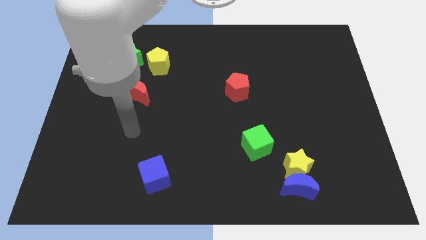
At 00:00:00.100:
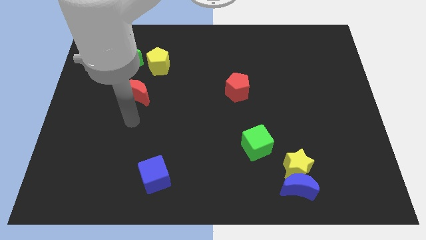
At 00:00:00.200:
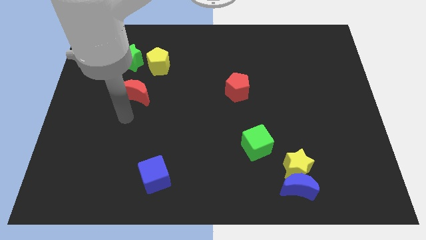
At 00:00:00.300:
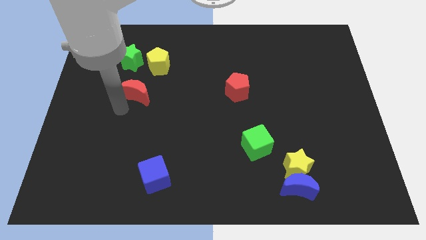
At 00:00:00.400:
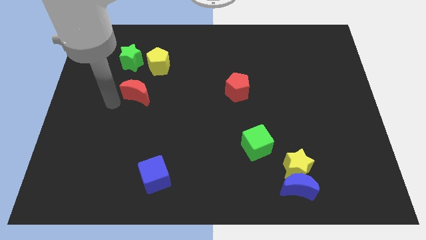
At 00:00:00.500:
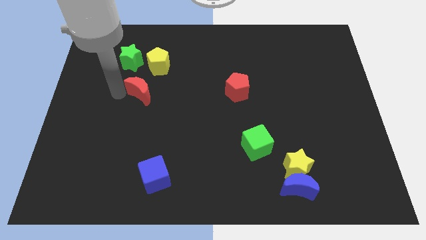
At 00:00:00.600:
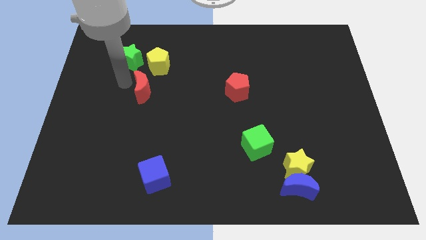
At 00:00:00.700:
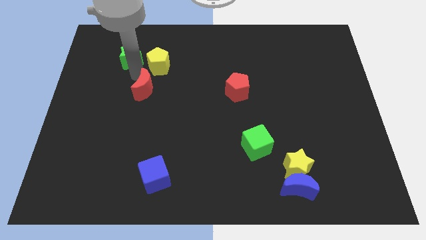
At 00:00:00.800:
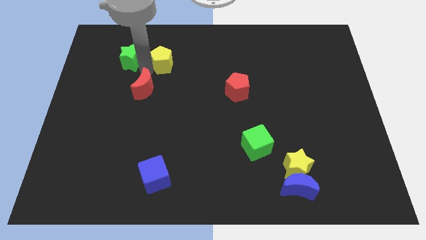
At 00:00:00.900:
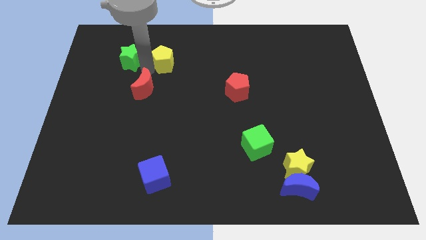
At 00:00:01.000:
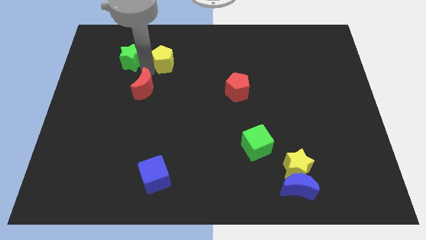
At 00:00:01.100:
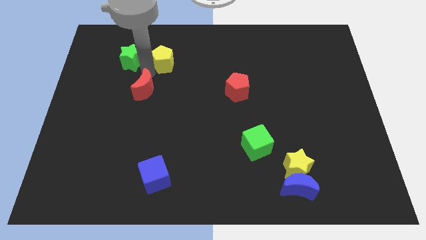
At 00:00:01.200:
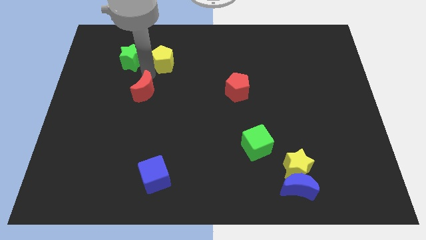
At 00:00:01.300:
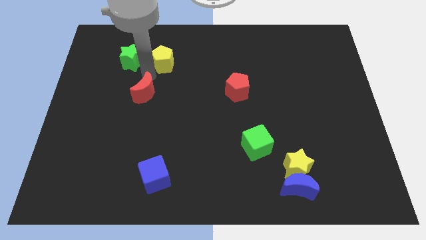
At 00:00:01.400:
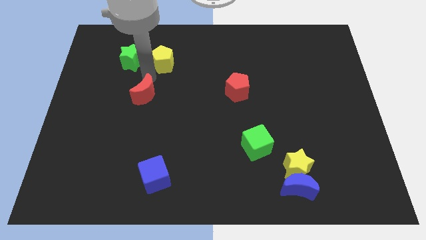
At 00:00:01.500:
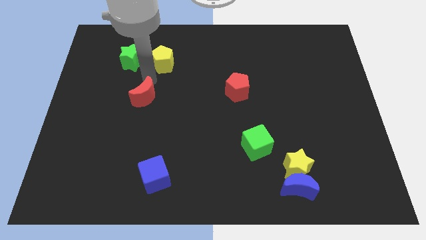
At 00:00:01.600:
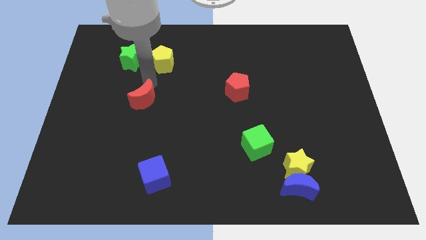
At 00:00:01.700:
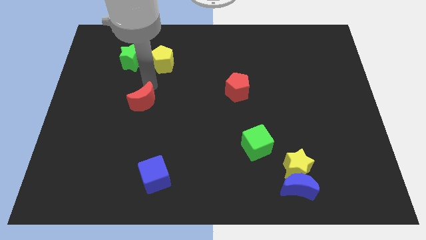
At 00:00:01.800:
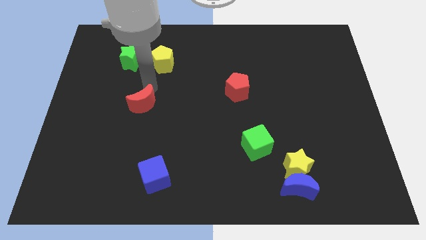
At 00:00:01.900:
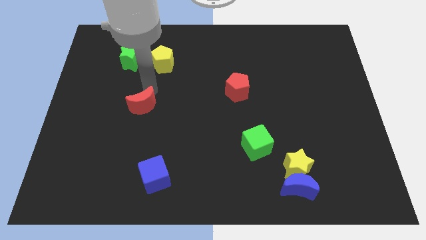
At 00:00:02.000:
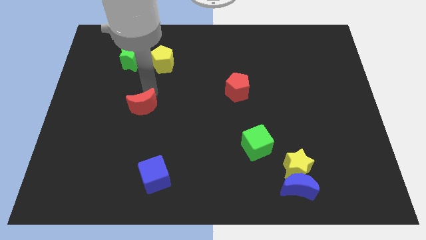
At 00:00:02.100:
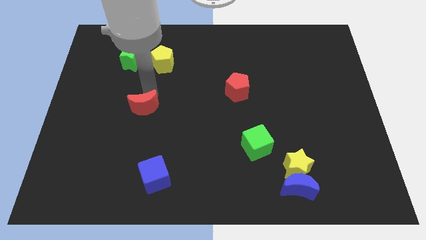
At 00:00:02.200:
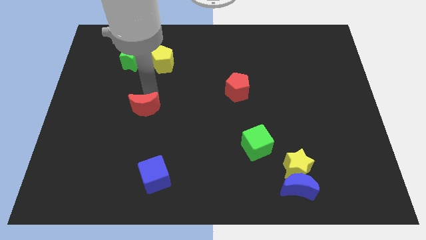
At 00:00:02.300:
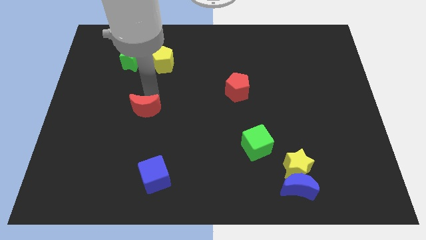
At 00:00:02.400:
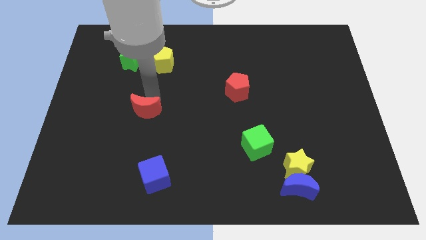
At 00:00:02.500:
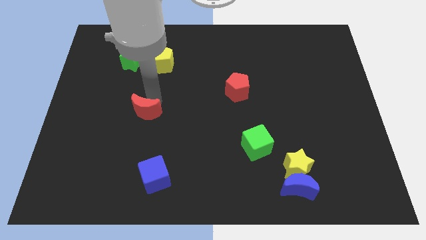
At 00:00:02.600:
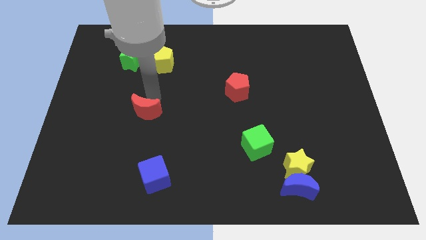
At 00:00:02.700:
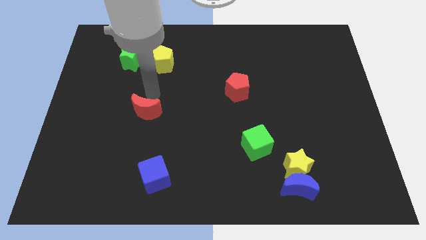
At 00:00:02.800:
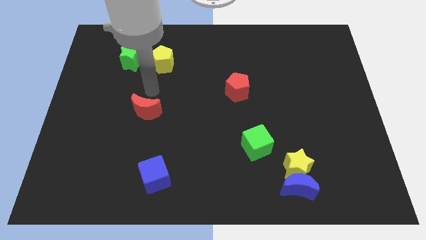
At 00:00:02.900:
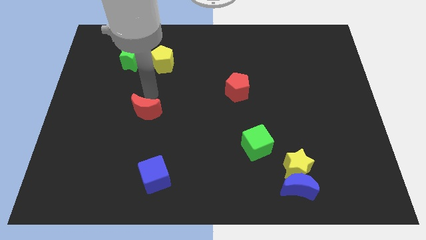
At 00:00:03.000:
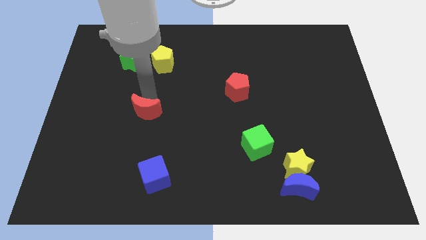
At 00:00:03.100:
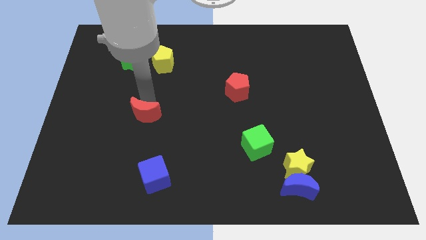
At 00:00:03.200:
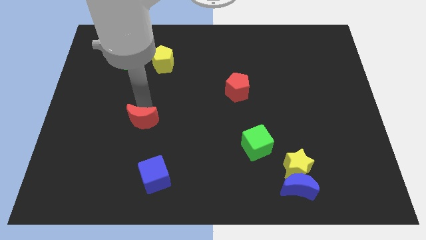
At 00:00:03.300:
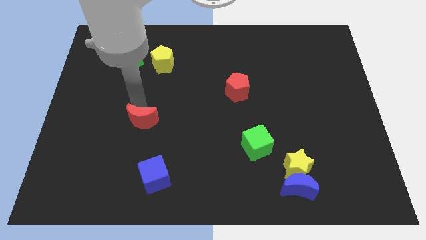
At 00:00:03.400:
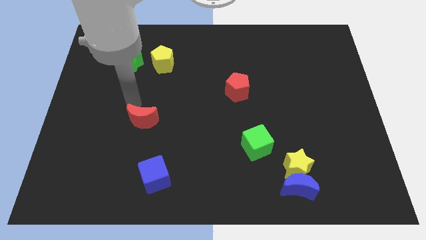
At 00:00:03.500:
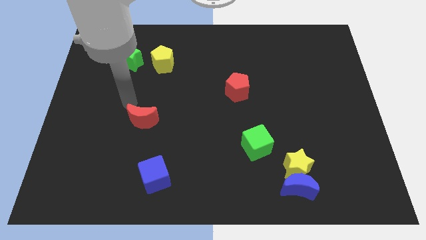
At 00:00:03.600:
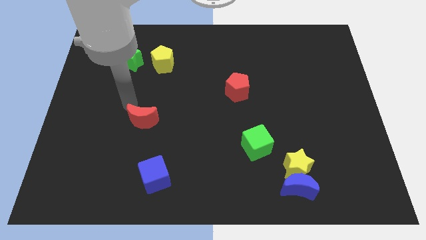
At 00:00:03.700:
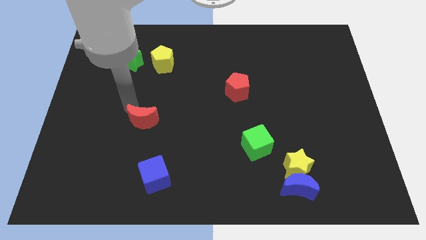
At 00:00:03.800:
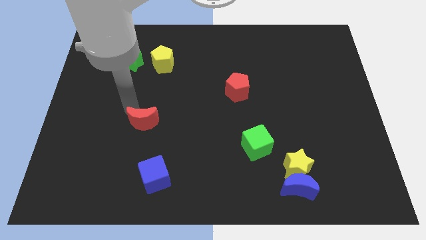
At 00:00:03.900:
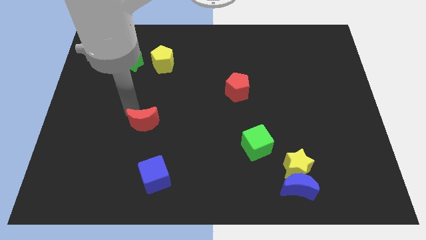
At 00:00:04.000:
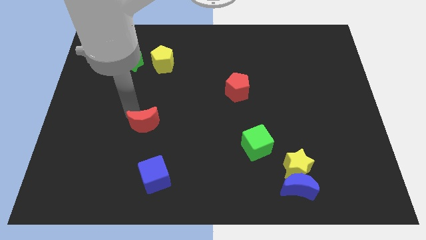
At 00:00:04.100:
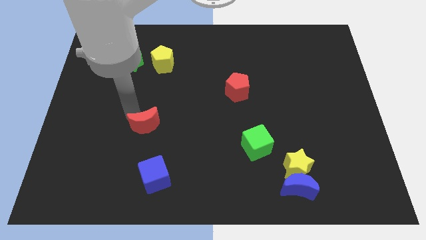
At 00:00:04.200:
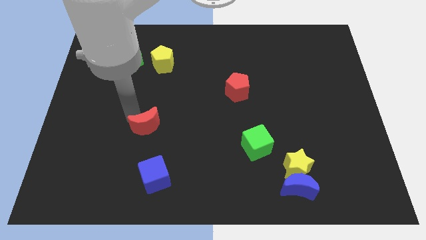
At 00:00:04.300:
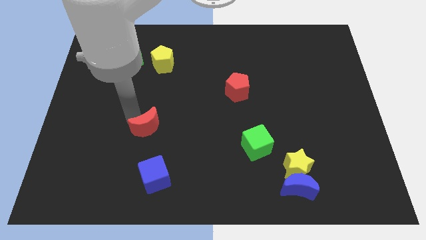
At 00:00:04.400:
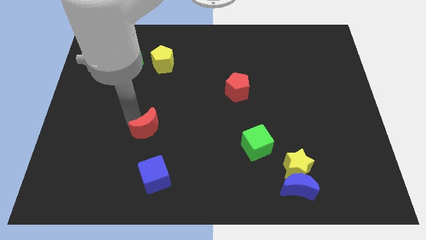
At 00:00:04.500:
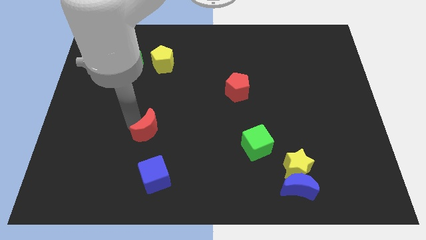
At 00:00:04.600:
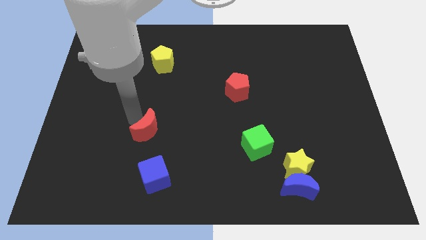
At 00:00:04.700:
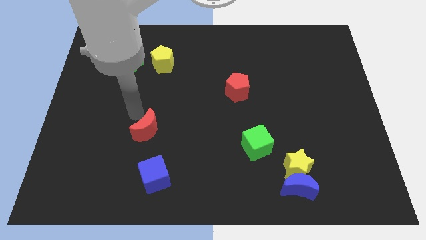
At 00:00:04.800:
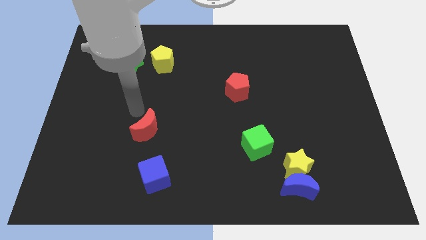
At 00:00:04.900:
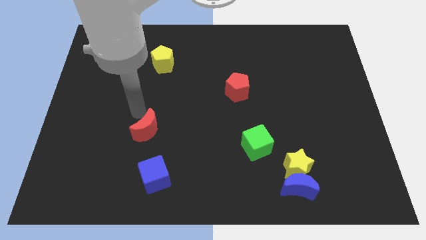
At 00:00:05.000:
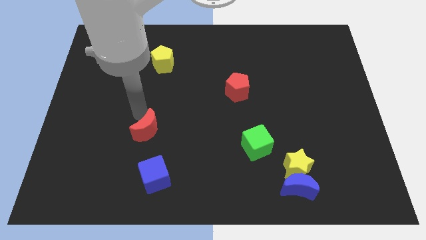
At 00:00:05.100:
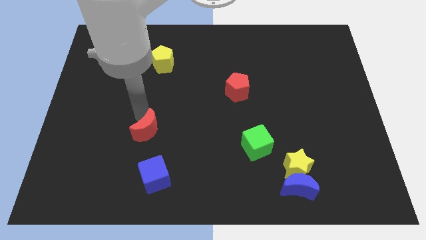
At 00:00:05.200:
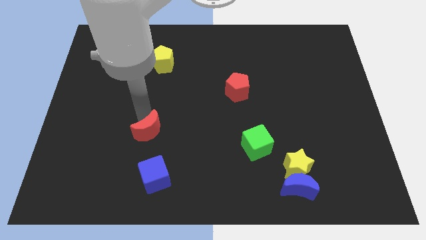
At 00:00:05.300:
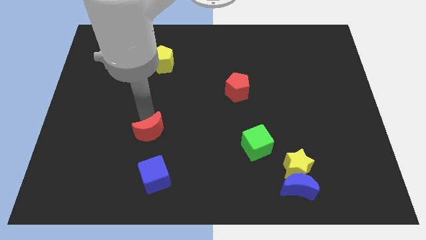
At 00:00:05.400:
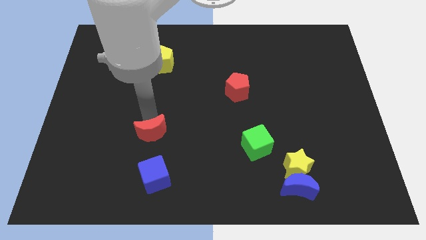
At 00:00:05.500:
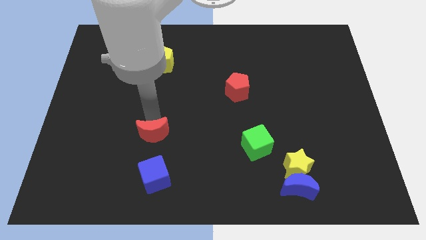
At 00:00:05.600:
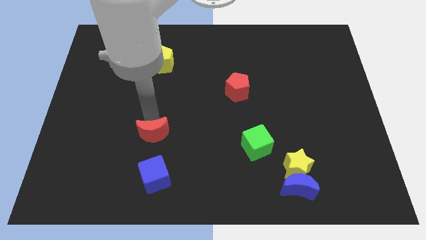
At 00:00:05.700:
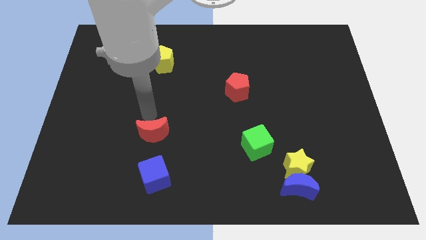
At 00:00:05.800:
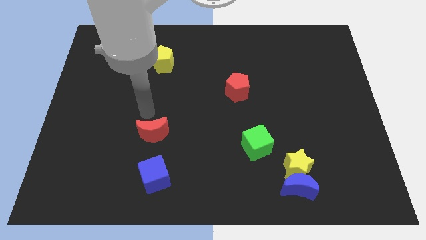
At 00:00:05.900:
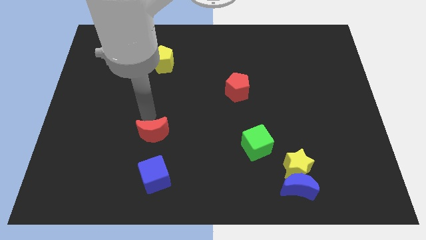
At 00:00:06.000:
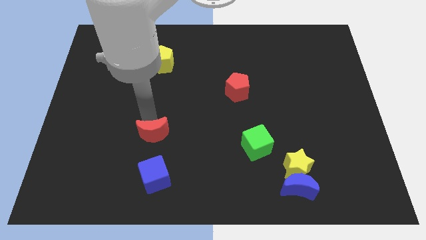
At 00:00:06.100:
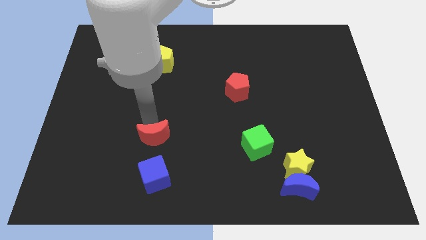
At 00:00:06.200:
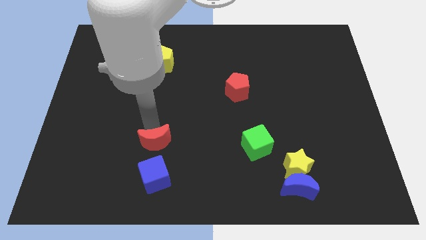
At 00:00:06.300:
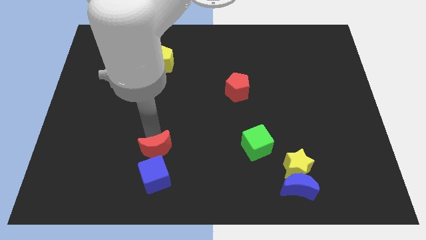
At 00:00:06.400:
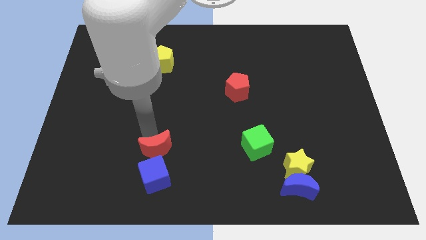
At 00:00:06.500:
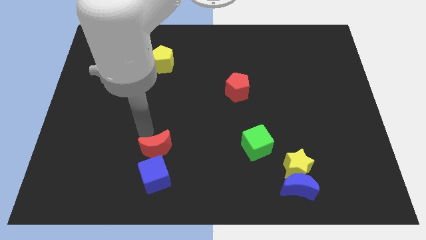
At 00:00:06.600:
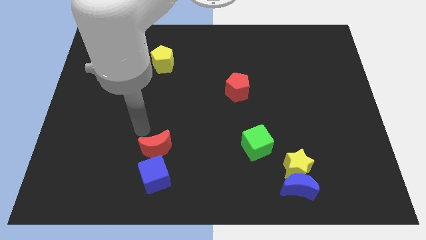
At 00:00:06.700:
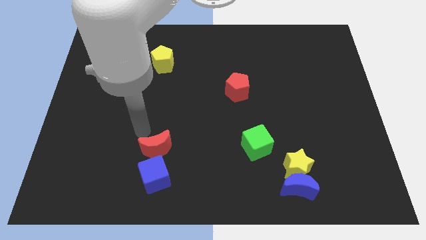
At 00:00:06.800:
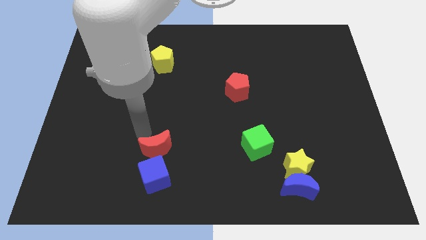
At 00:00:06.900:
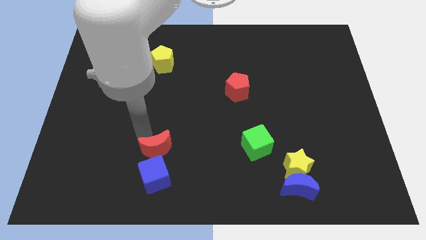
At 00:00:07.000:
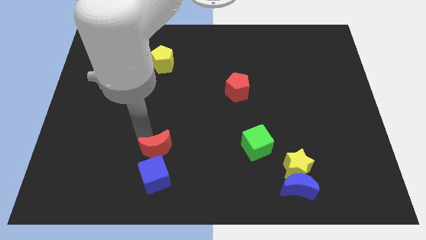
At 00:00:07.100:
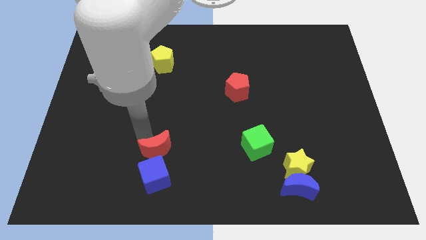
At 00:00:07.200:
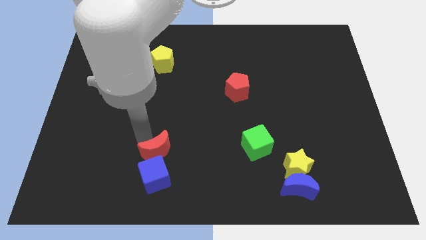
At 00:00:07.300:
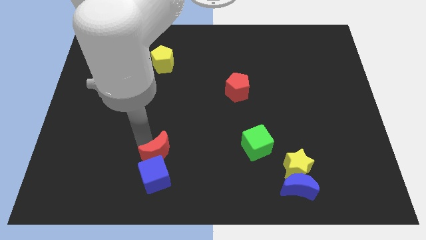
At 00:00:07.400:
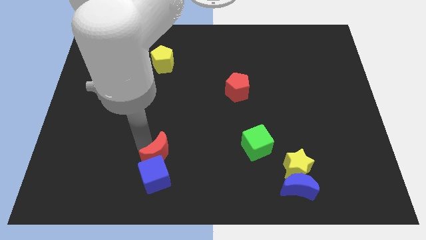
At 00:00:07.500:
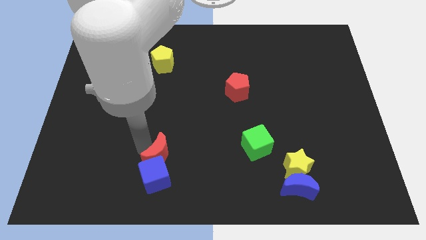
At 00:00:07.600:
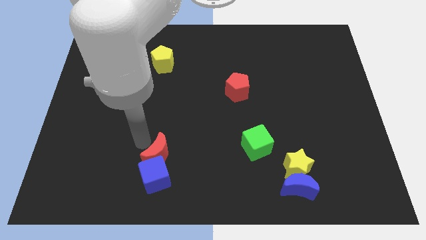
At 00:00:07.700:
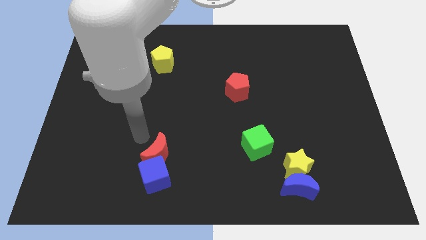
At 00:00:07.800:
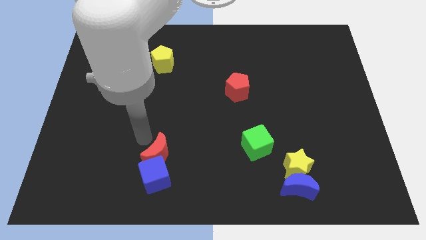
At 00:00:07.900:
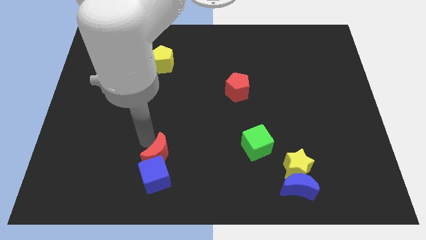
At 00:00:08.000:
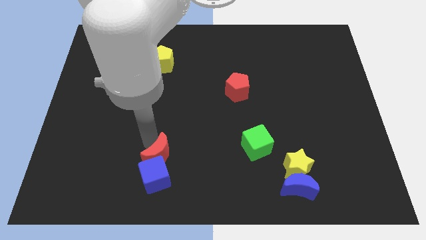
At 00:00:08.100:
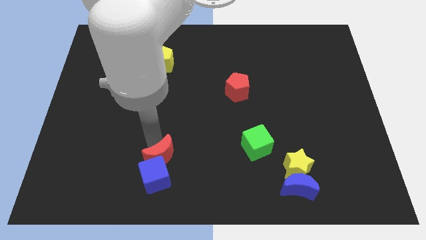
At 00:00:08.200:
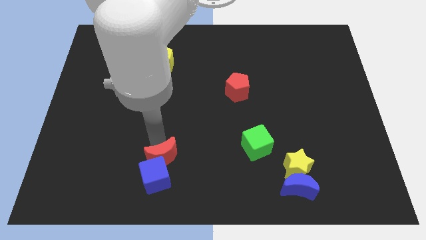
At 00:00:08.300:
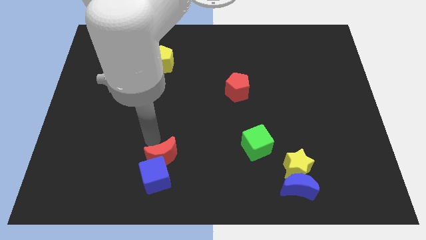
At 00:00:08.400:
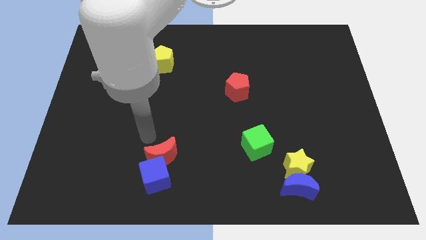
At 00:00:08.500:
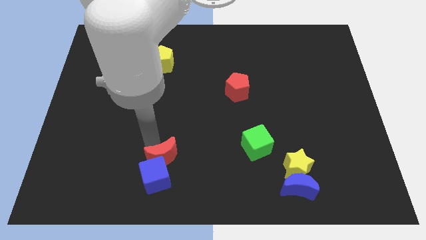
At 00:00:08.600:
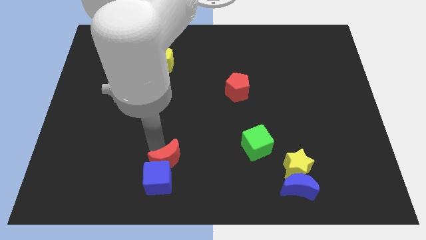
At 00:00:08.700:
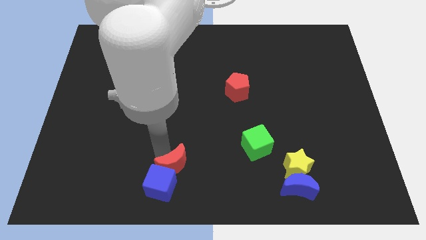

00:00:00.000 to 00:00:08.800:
move the red moon to the bottom side
